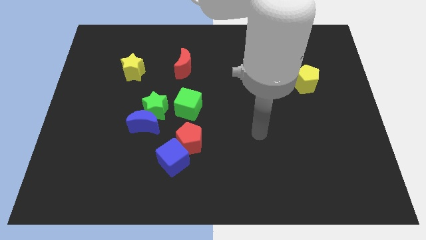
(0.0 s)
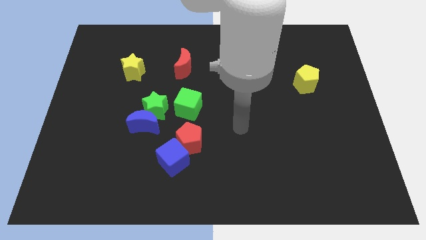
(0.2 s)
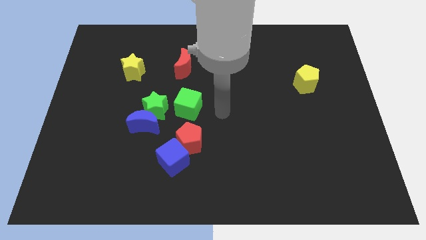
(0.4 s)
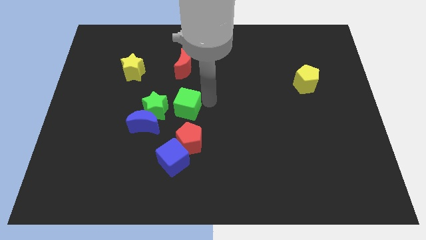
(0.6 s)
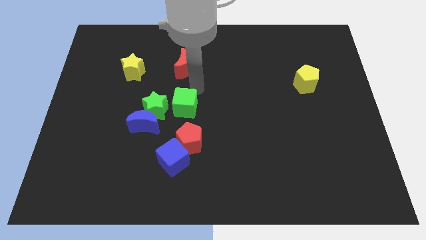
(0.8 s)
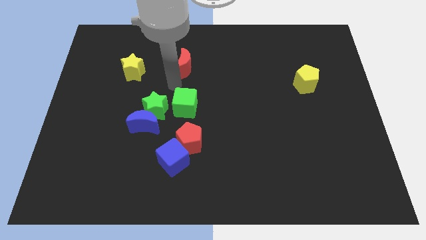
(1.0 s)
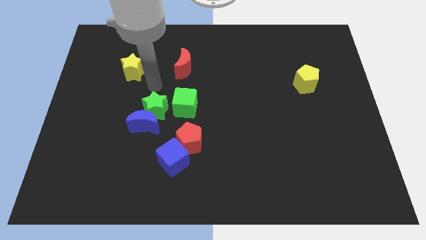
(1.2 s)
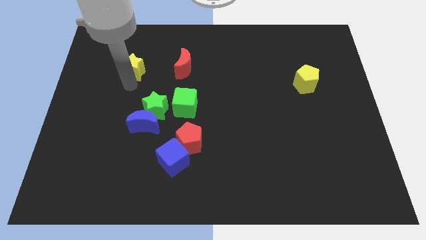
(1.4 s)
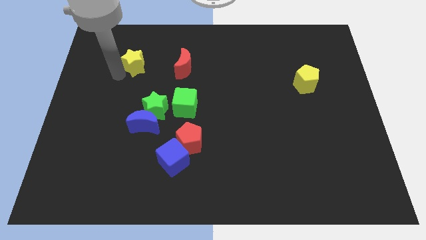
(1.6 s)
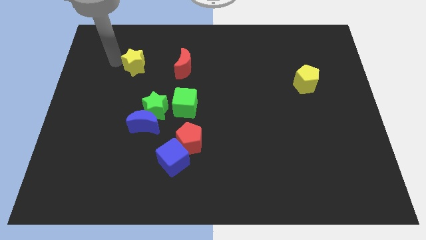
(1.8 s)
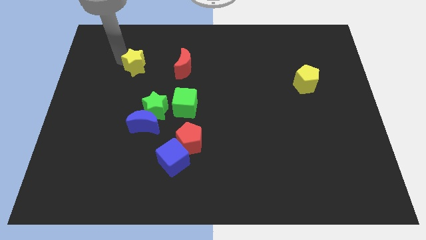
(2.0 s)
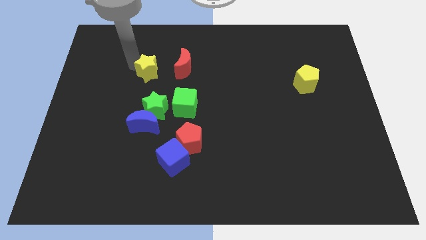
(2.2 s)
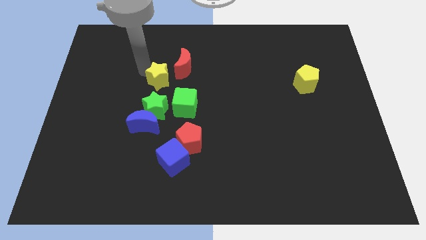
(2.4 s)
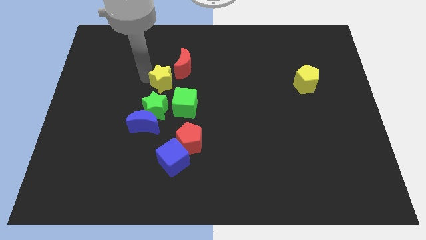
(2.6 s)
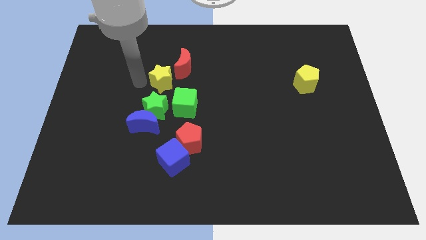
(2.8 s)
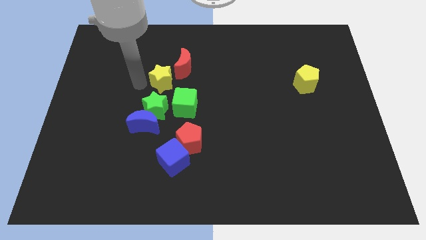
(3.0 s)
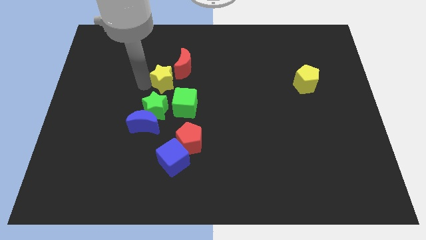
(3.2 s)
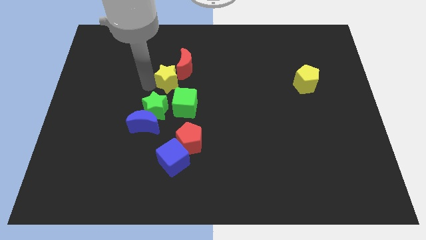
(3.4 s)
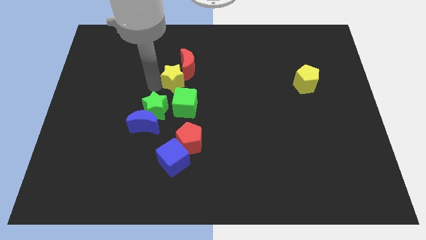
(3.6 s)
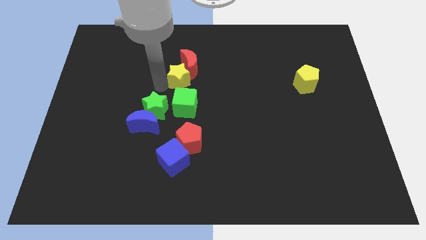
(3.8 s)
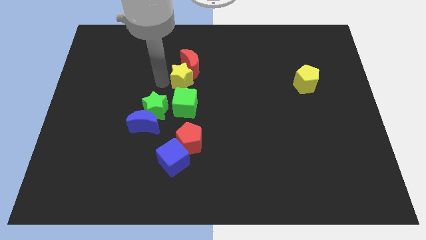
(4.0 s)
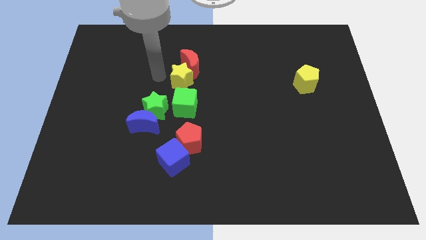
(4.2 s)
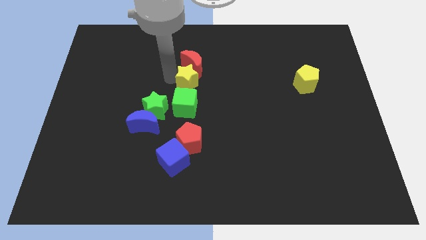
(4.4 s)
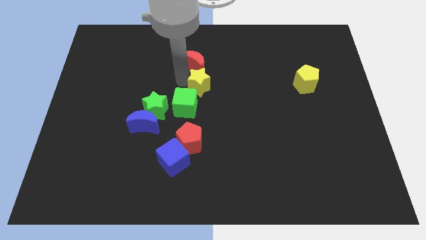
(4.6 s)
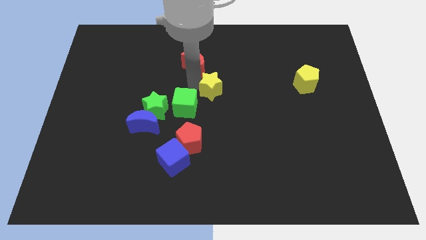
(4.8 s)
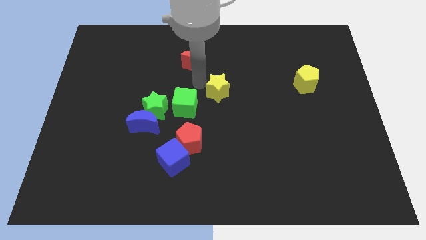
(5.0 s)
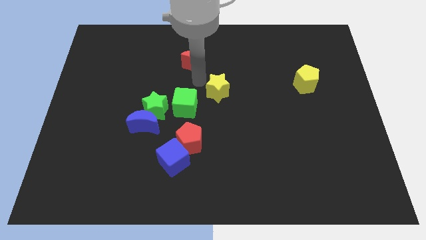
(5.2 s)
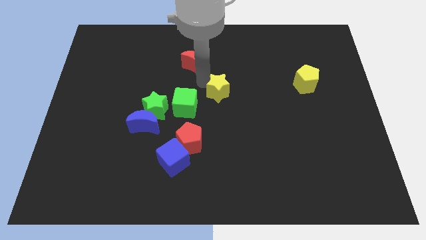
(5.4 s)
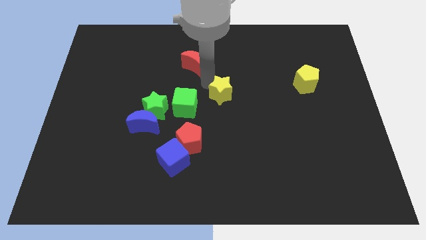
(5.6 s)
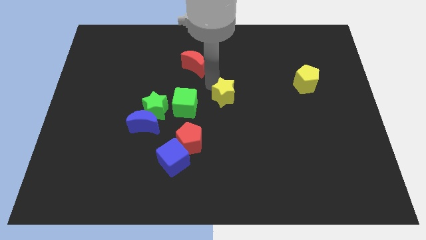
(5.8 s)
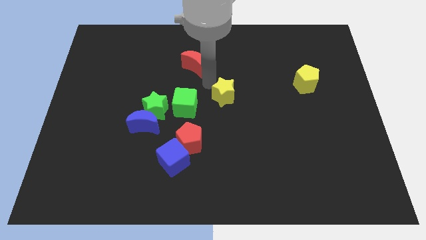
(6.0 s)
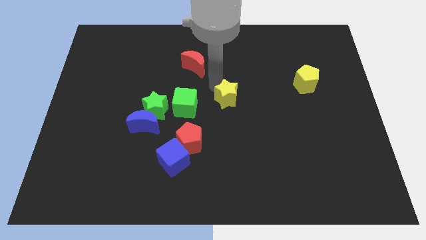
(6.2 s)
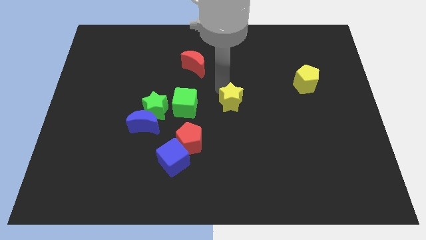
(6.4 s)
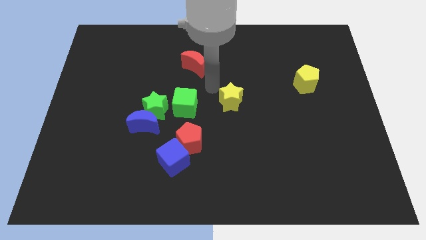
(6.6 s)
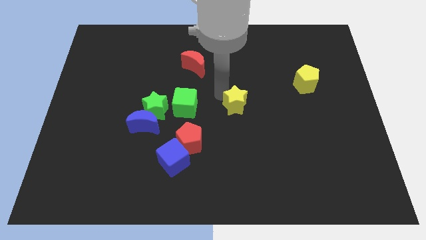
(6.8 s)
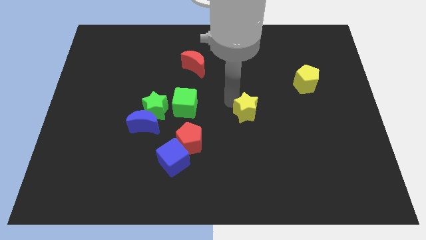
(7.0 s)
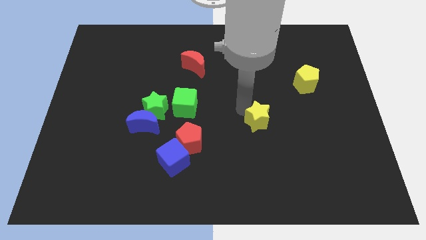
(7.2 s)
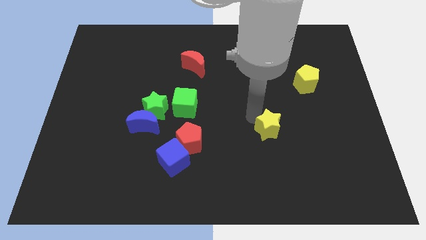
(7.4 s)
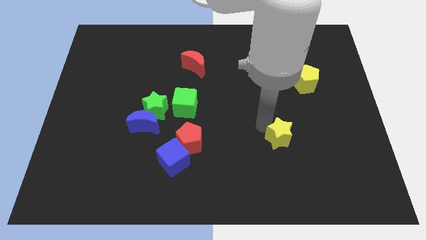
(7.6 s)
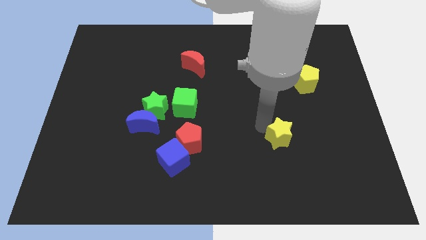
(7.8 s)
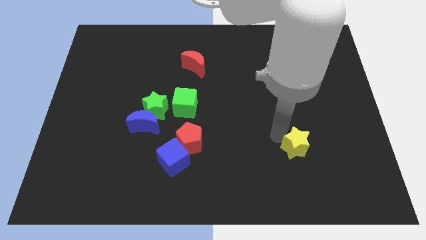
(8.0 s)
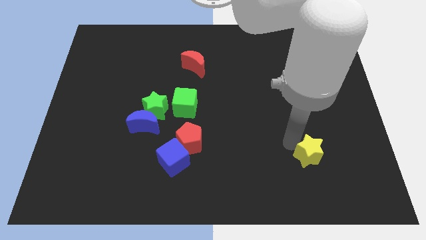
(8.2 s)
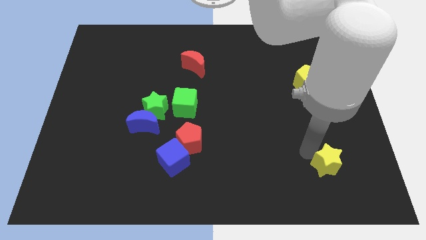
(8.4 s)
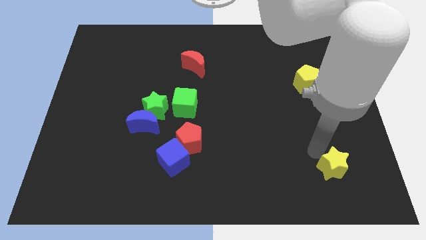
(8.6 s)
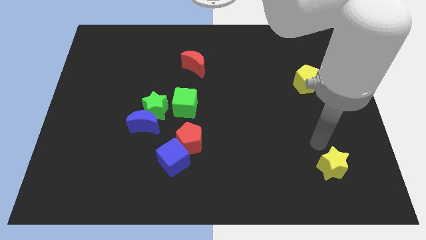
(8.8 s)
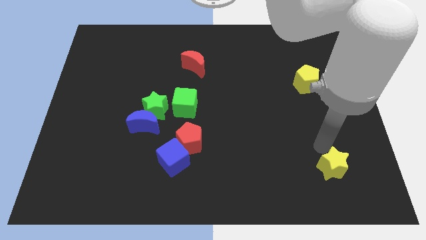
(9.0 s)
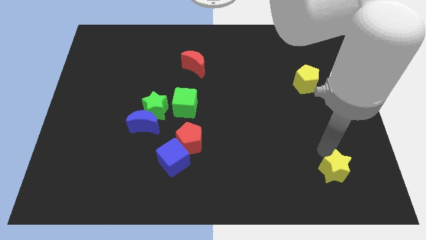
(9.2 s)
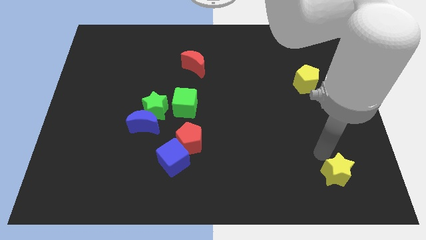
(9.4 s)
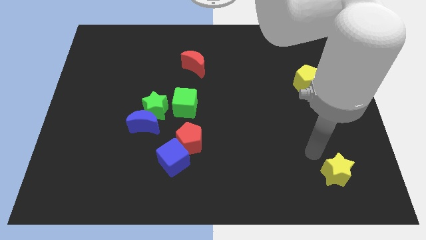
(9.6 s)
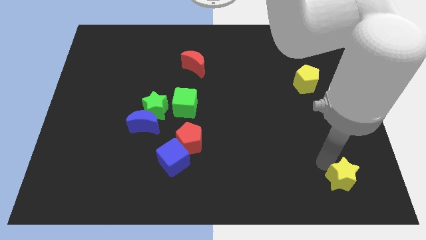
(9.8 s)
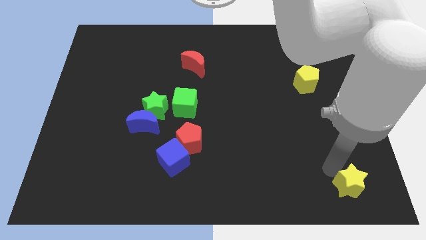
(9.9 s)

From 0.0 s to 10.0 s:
push the yellow star to the bottom right corner

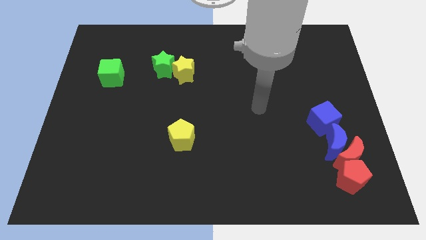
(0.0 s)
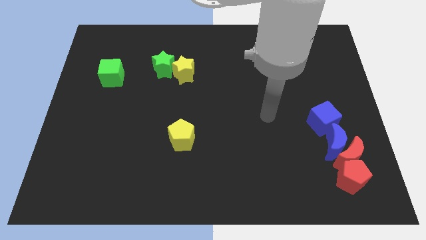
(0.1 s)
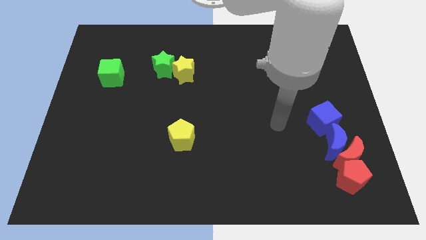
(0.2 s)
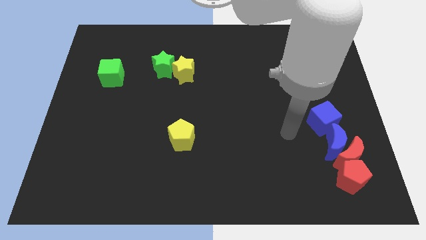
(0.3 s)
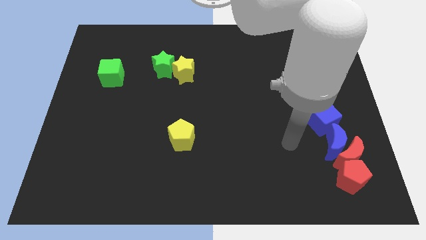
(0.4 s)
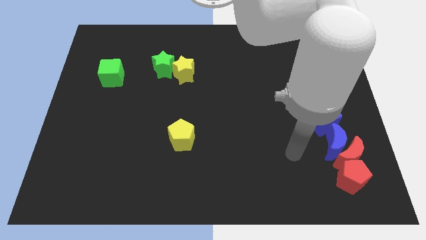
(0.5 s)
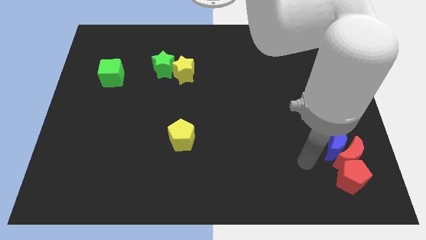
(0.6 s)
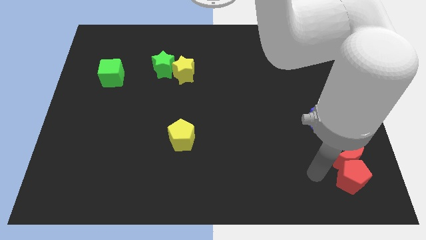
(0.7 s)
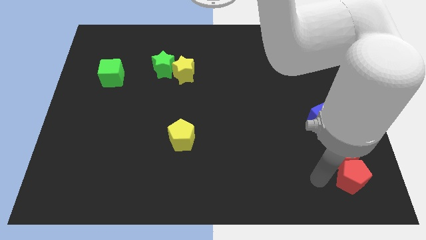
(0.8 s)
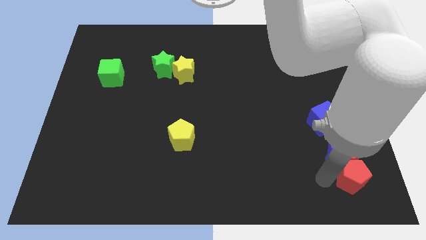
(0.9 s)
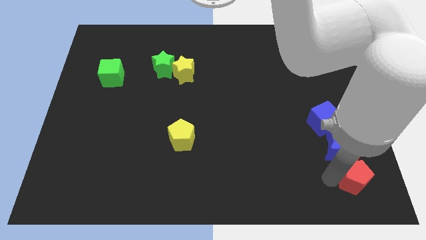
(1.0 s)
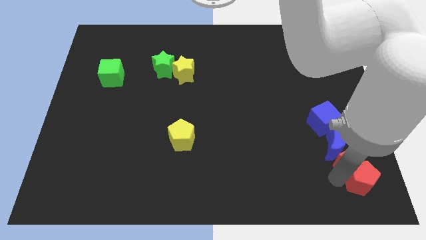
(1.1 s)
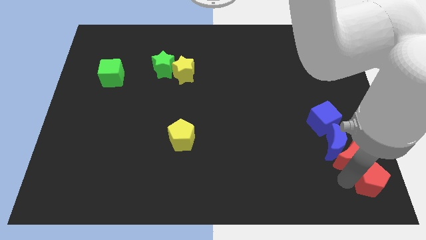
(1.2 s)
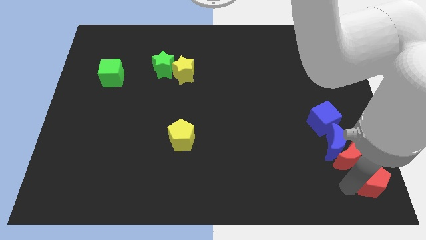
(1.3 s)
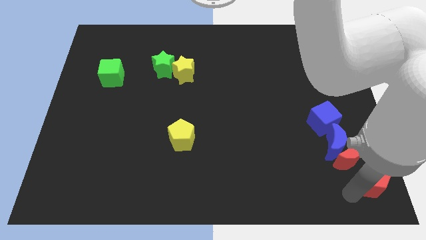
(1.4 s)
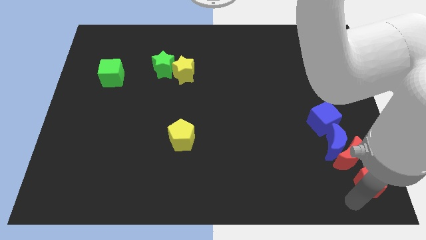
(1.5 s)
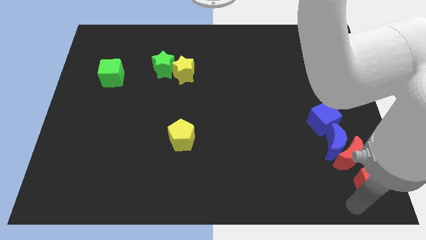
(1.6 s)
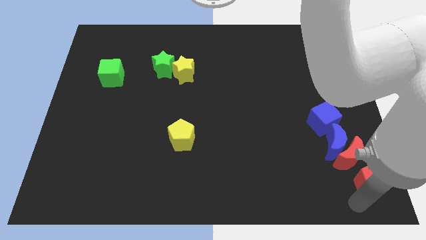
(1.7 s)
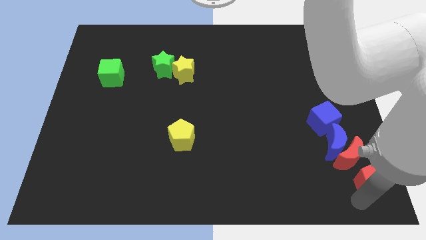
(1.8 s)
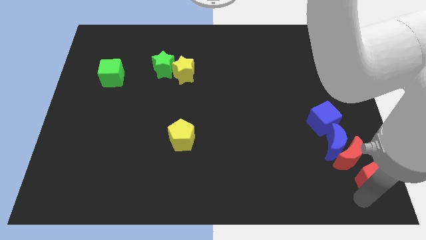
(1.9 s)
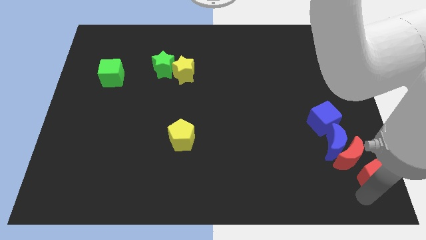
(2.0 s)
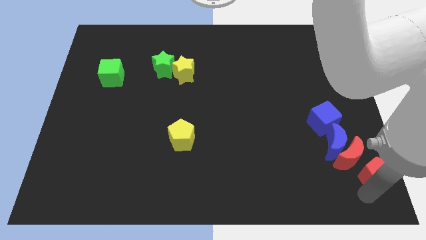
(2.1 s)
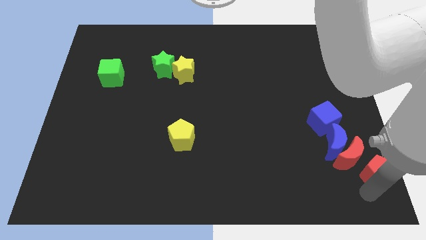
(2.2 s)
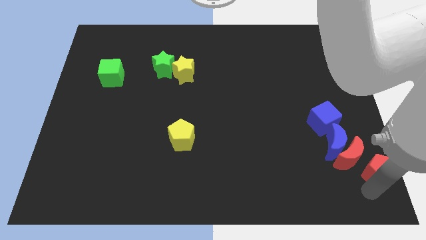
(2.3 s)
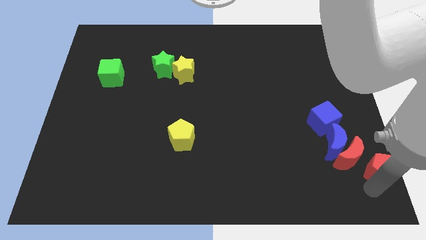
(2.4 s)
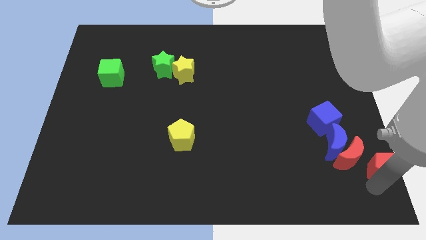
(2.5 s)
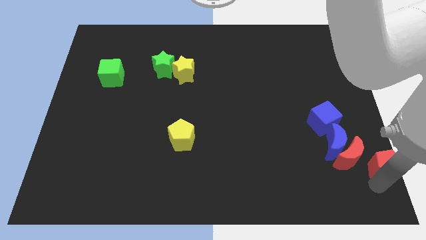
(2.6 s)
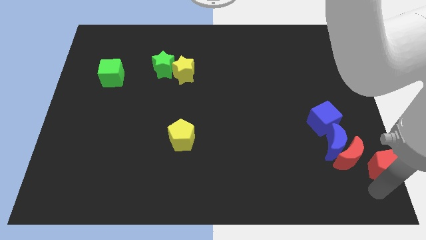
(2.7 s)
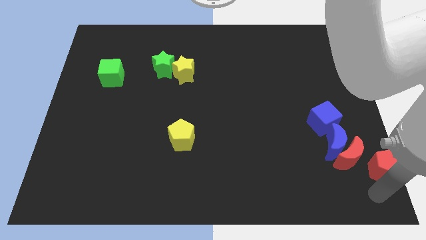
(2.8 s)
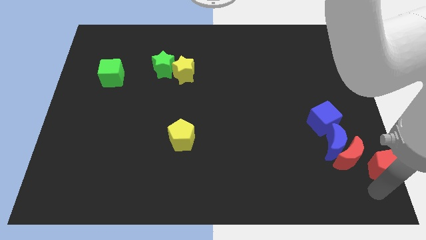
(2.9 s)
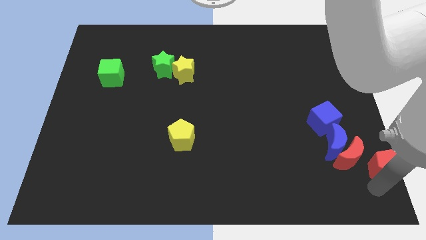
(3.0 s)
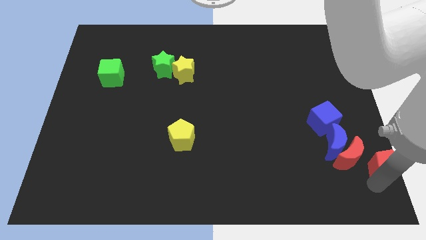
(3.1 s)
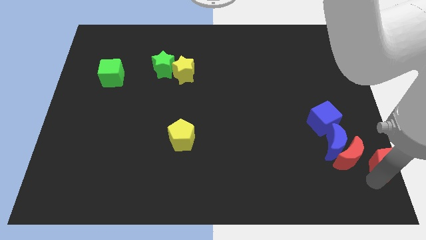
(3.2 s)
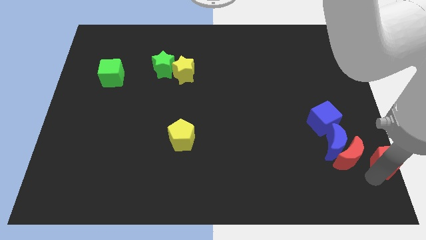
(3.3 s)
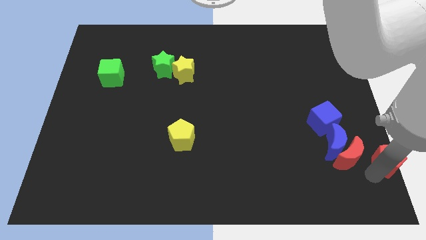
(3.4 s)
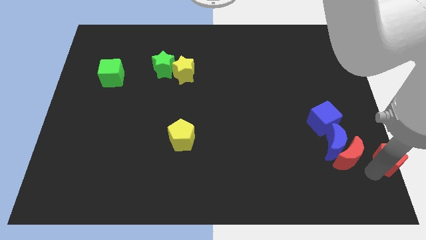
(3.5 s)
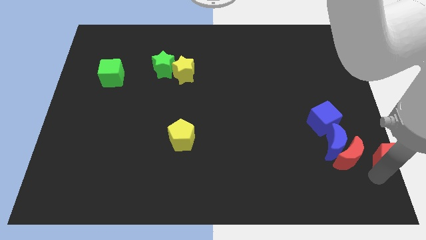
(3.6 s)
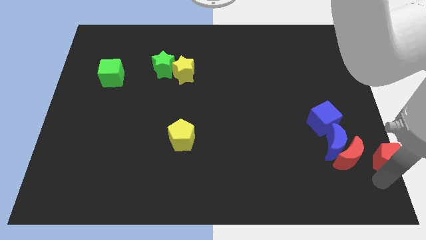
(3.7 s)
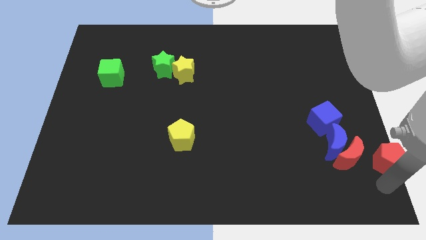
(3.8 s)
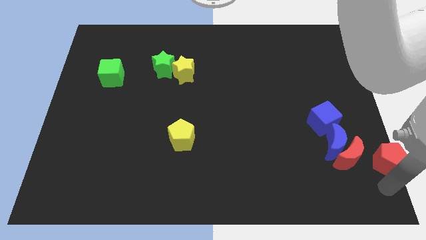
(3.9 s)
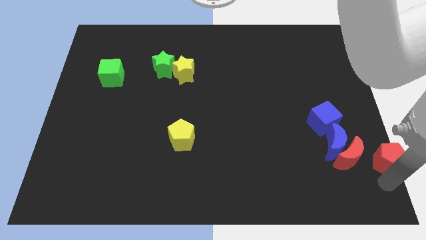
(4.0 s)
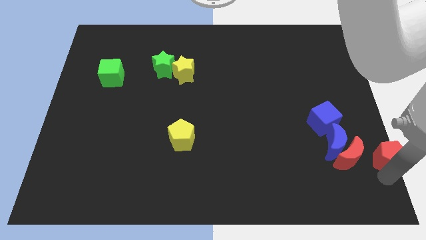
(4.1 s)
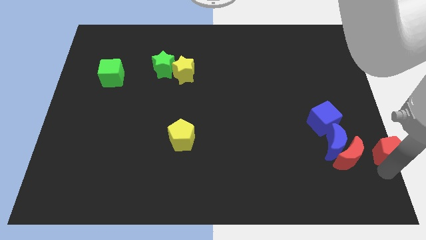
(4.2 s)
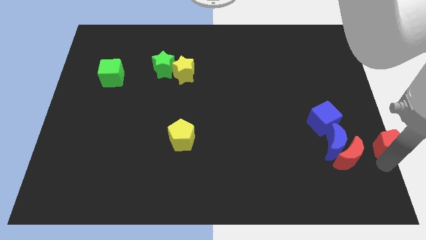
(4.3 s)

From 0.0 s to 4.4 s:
put the red pentagon to the right side
